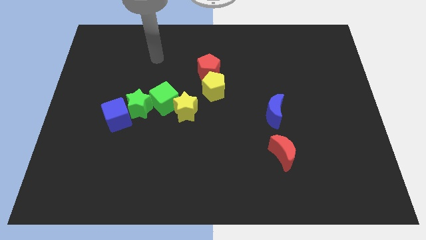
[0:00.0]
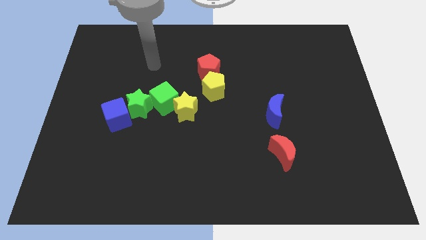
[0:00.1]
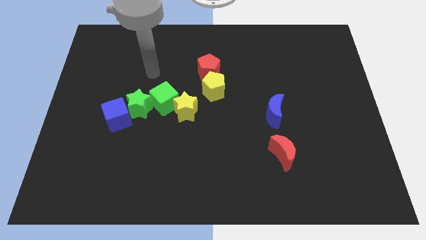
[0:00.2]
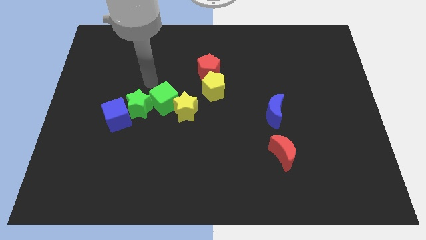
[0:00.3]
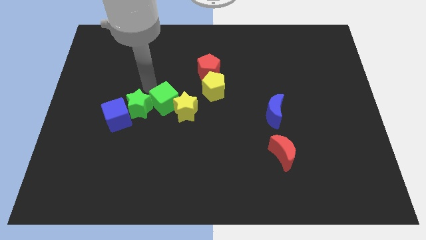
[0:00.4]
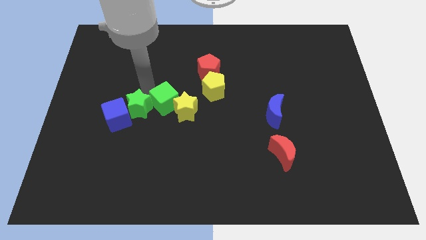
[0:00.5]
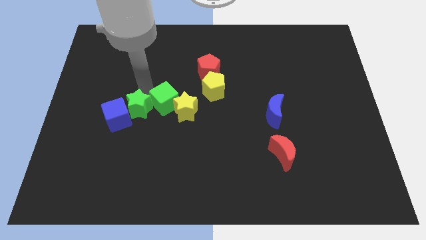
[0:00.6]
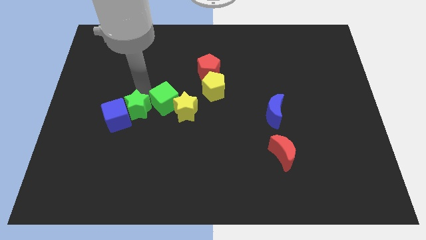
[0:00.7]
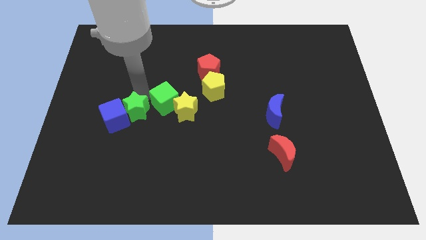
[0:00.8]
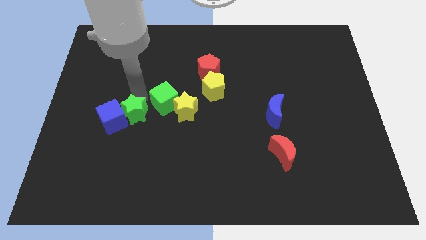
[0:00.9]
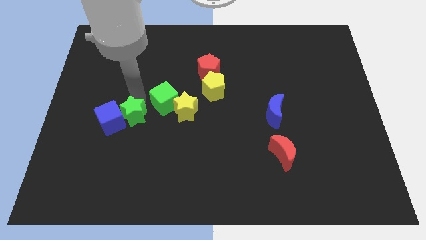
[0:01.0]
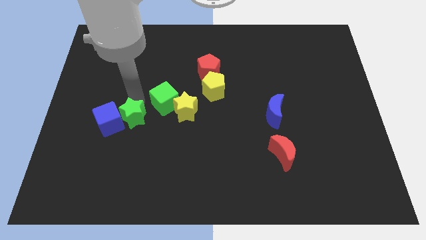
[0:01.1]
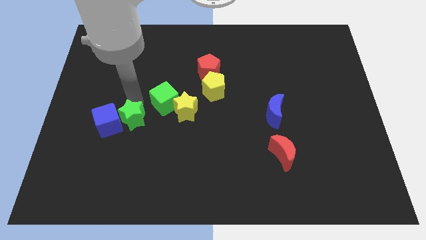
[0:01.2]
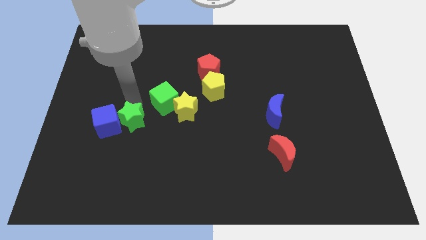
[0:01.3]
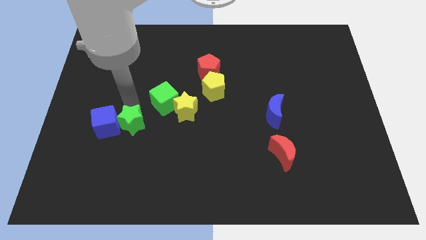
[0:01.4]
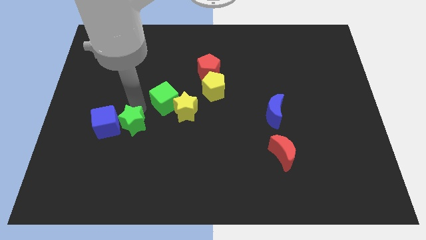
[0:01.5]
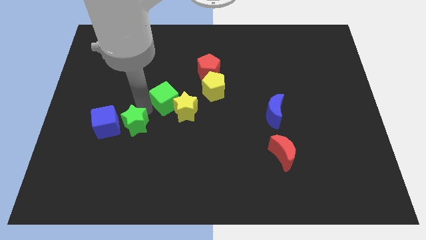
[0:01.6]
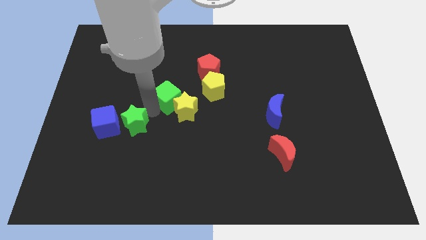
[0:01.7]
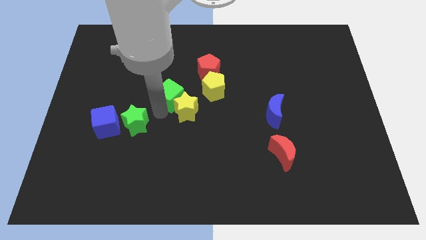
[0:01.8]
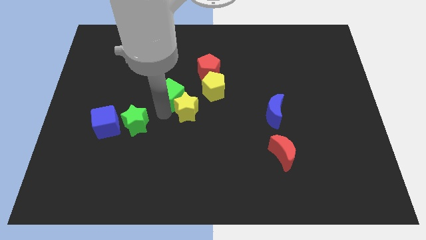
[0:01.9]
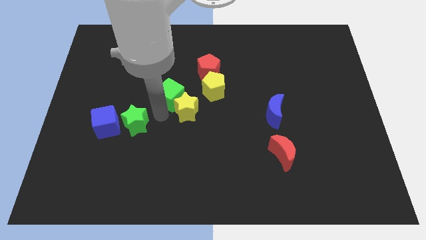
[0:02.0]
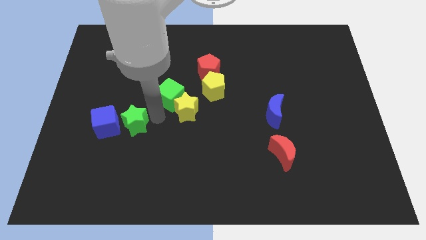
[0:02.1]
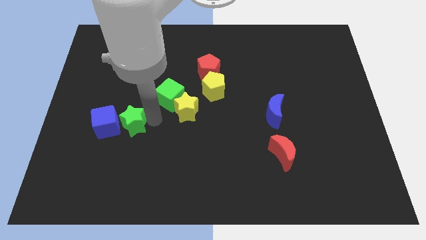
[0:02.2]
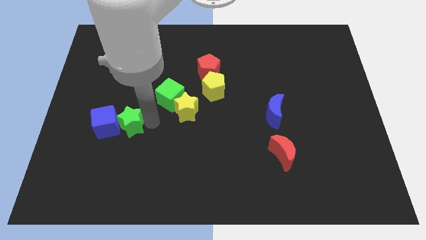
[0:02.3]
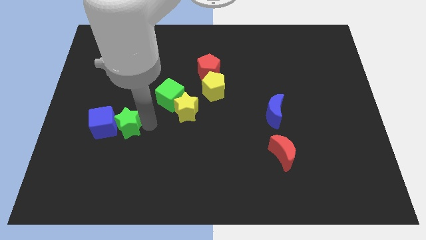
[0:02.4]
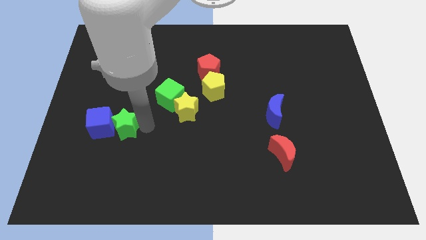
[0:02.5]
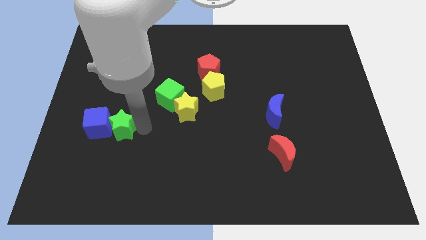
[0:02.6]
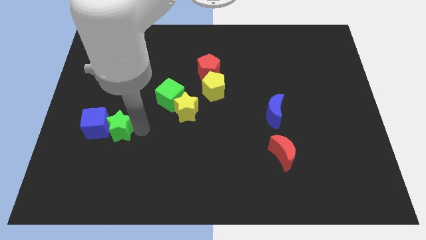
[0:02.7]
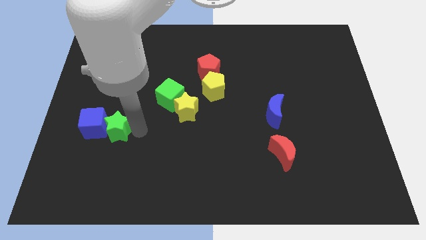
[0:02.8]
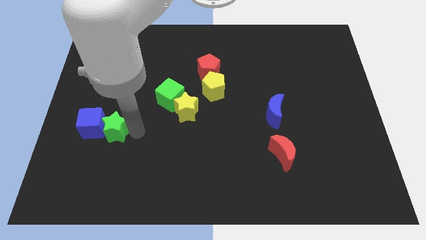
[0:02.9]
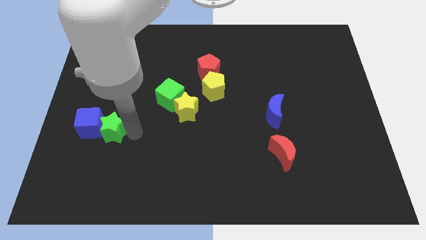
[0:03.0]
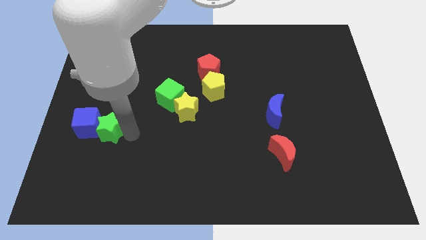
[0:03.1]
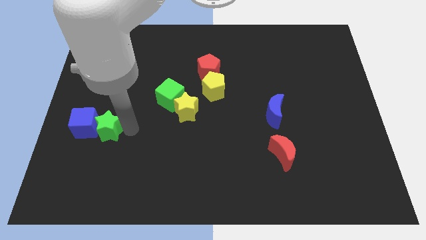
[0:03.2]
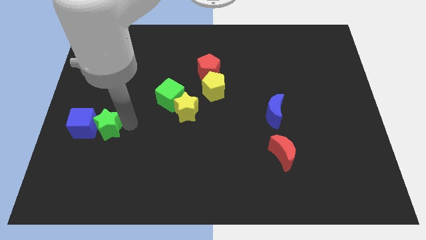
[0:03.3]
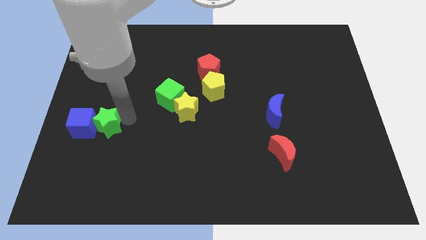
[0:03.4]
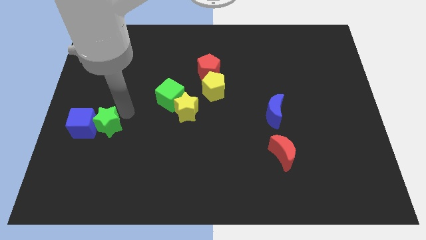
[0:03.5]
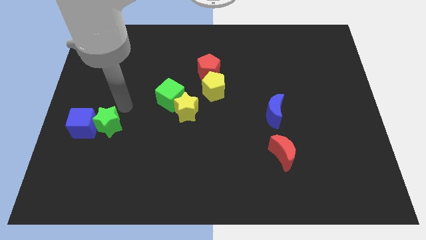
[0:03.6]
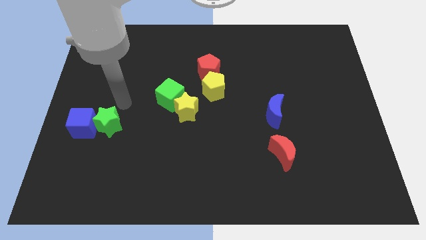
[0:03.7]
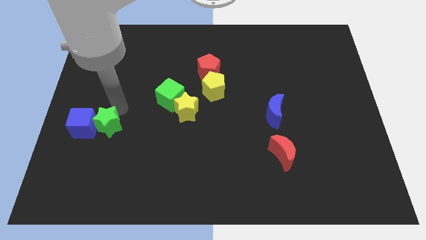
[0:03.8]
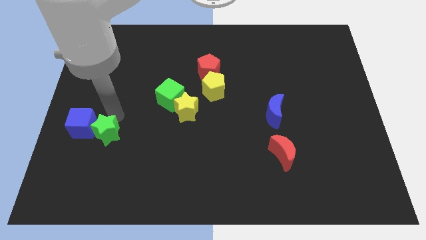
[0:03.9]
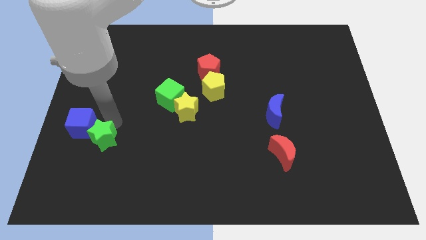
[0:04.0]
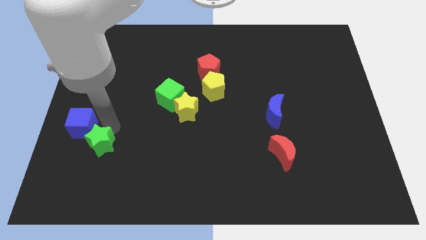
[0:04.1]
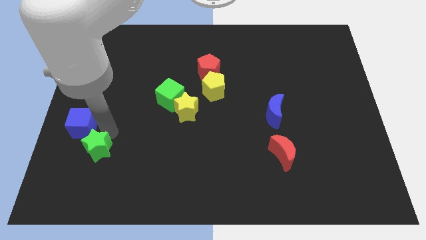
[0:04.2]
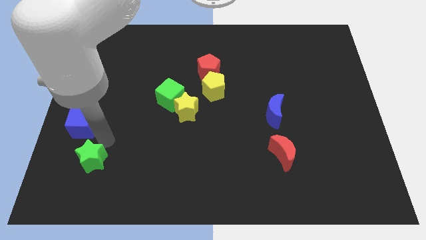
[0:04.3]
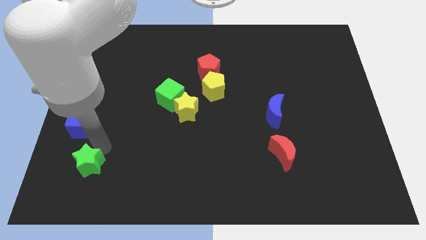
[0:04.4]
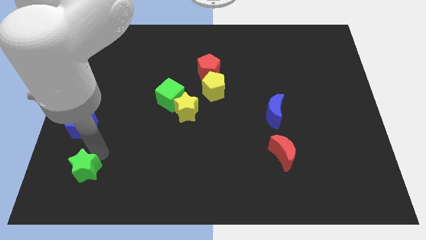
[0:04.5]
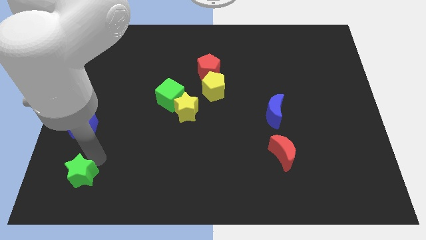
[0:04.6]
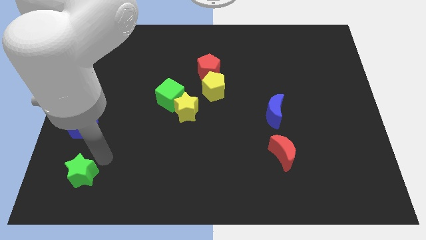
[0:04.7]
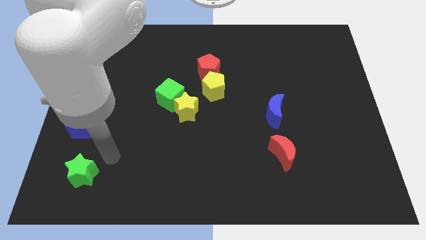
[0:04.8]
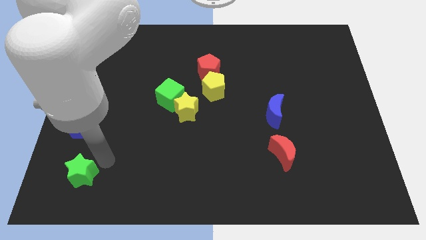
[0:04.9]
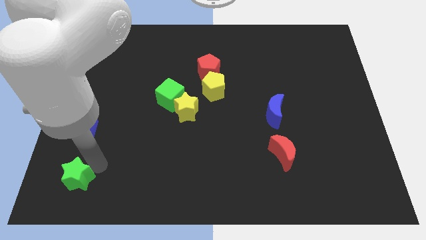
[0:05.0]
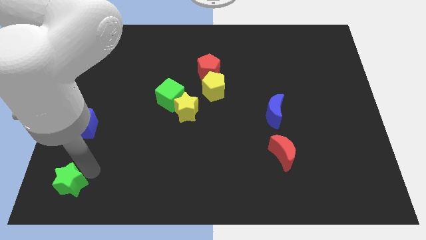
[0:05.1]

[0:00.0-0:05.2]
push the green star to the lower left corner

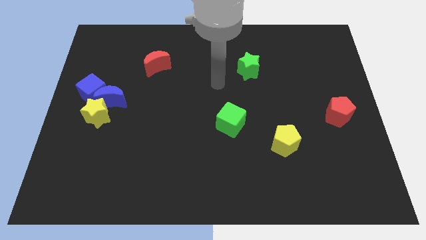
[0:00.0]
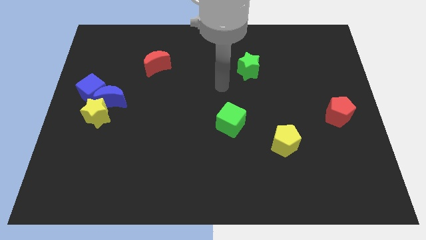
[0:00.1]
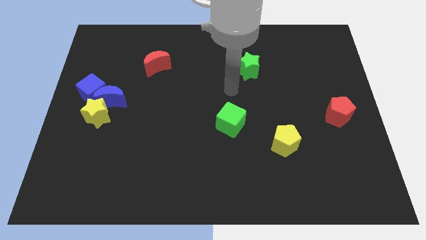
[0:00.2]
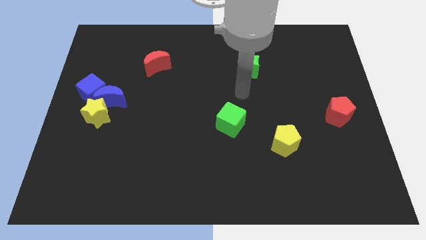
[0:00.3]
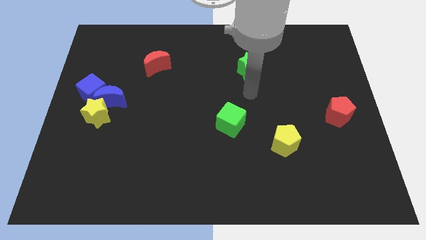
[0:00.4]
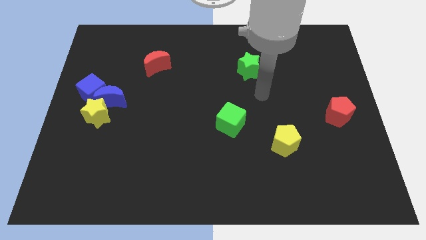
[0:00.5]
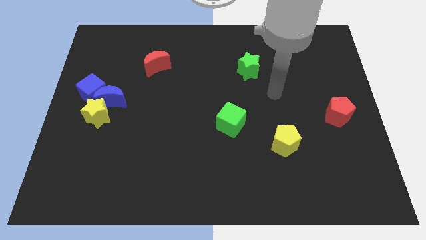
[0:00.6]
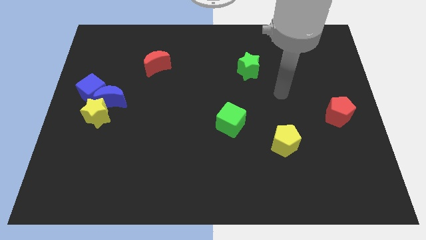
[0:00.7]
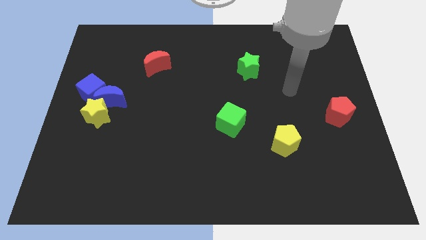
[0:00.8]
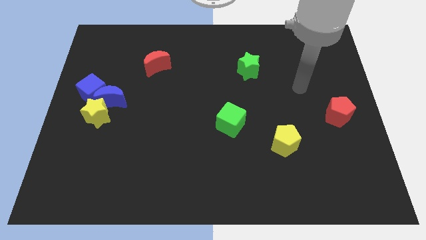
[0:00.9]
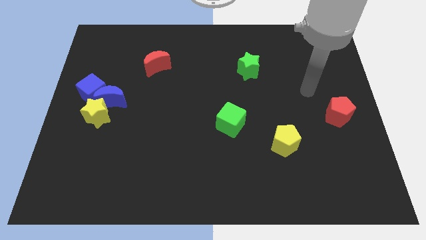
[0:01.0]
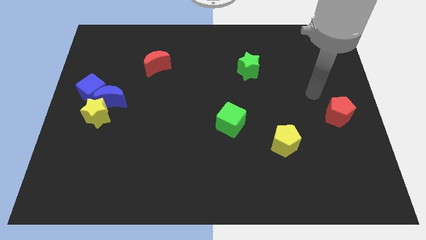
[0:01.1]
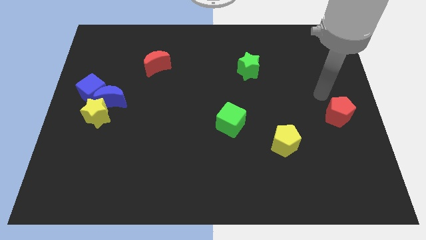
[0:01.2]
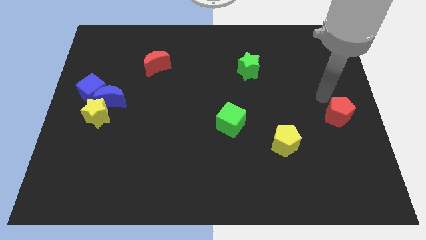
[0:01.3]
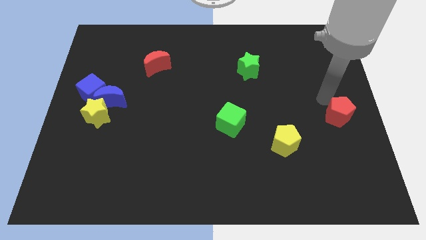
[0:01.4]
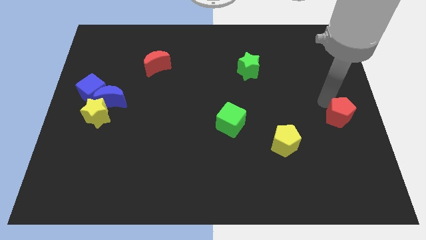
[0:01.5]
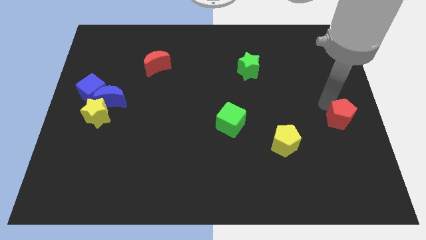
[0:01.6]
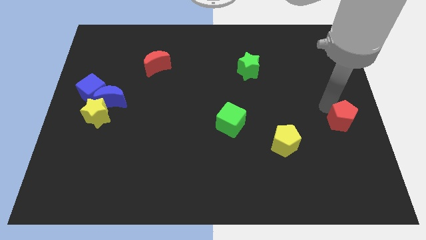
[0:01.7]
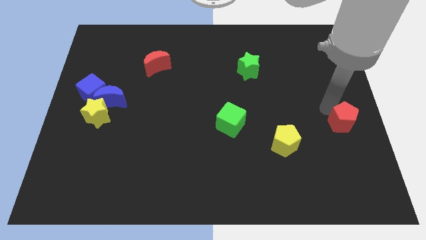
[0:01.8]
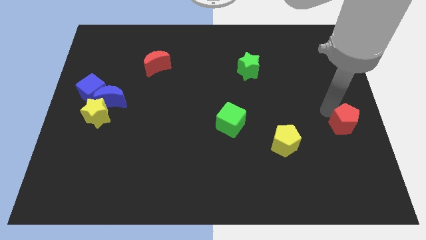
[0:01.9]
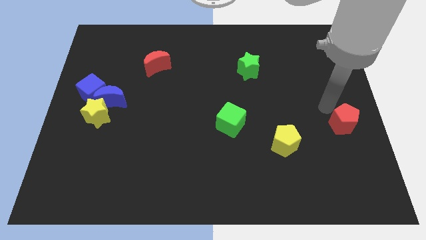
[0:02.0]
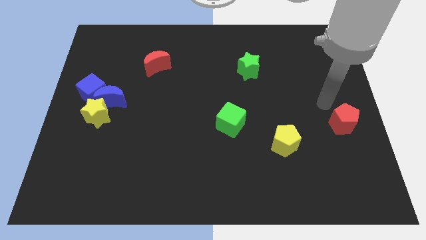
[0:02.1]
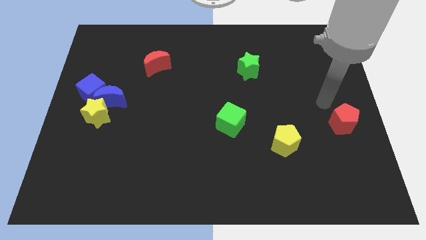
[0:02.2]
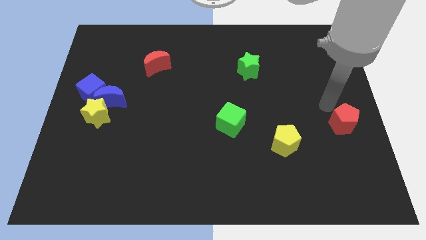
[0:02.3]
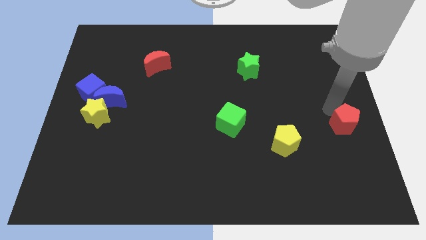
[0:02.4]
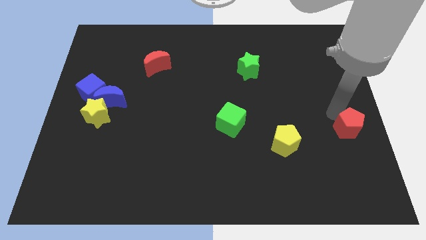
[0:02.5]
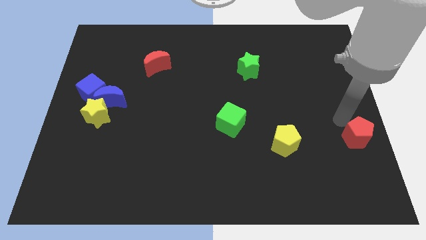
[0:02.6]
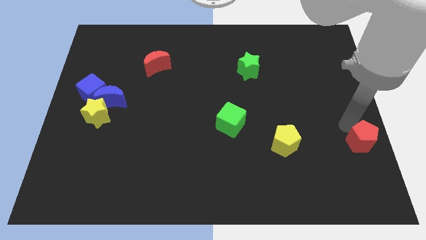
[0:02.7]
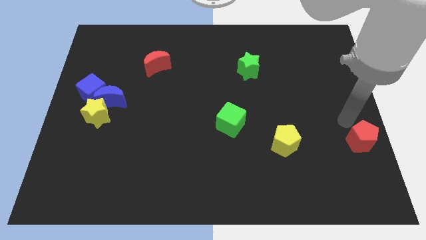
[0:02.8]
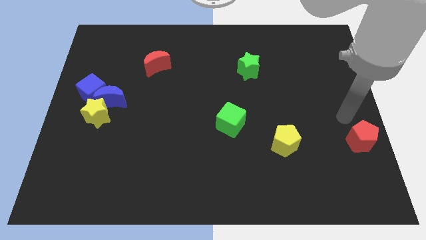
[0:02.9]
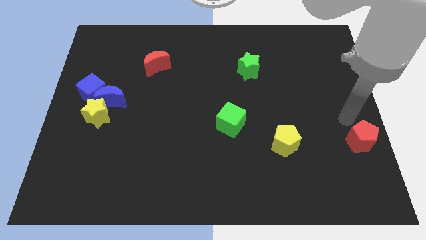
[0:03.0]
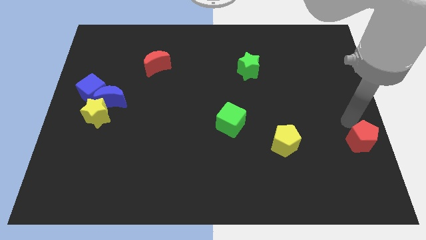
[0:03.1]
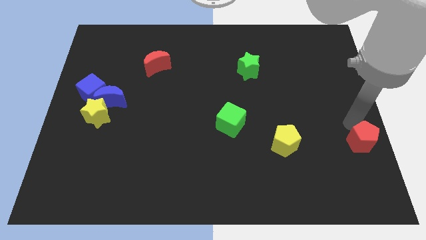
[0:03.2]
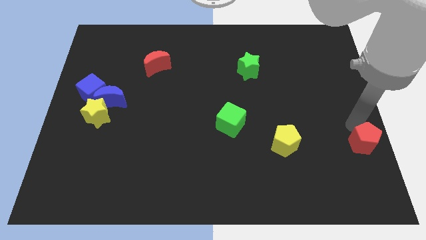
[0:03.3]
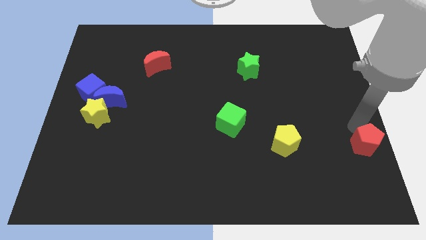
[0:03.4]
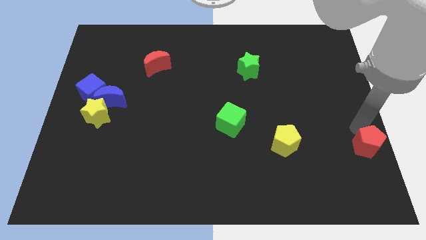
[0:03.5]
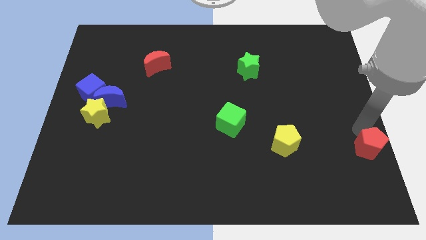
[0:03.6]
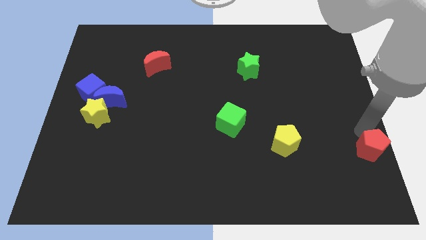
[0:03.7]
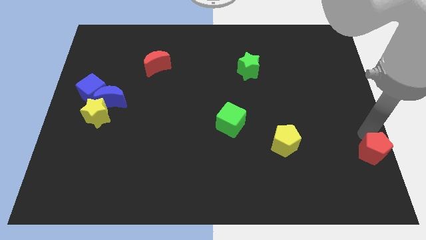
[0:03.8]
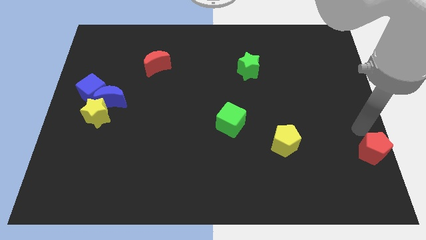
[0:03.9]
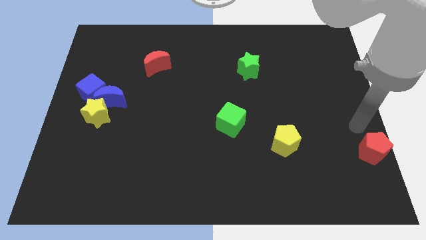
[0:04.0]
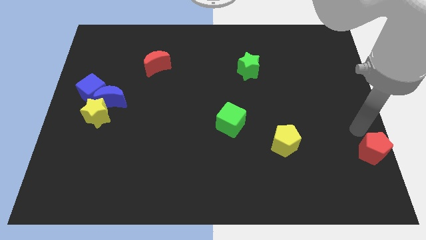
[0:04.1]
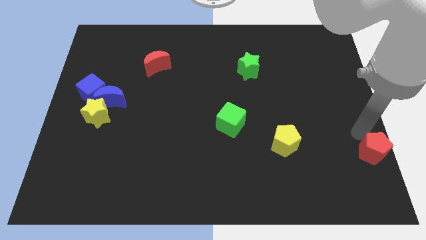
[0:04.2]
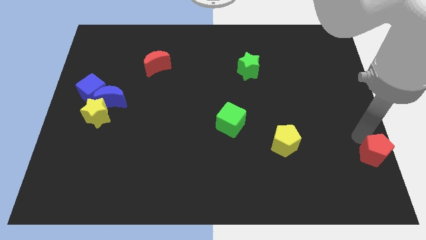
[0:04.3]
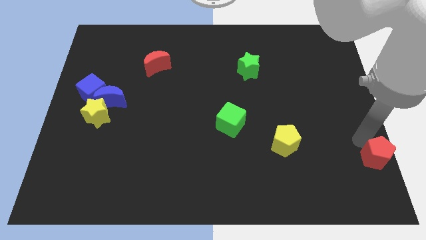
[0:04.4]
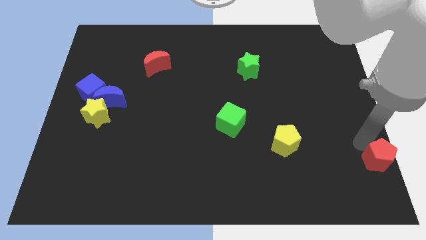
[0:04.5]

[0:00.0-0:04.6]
push the red pentagon to the lower right corner
